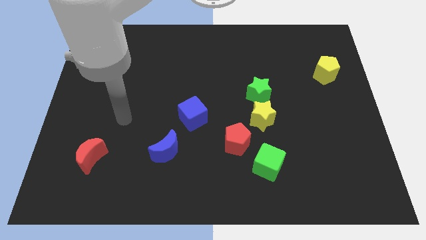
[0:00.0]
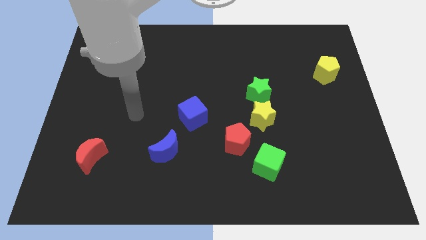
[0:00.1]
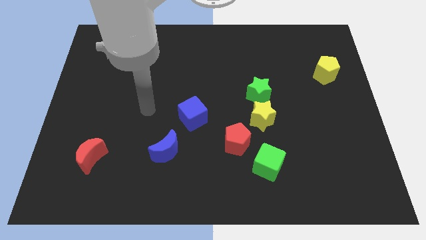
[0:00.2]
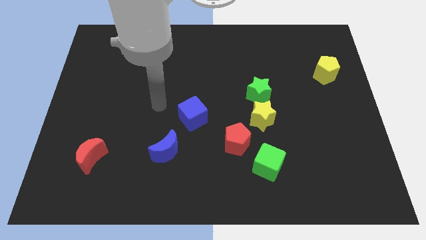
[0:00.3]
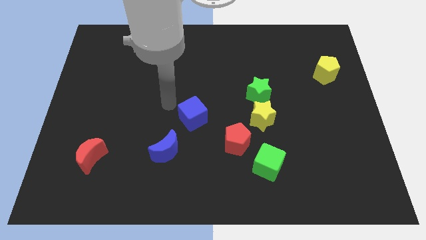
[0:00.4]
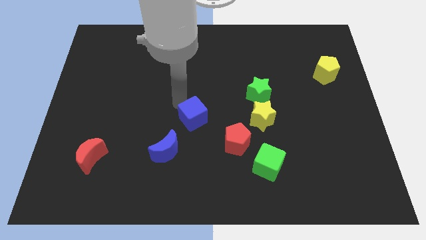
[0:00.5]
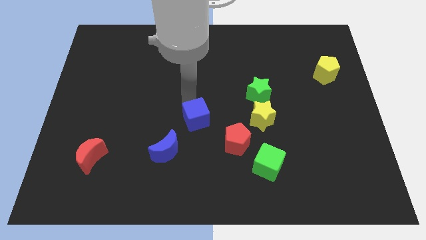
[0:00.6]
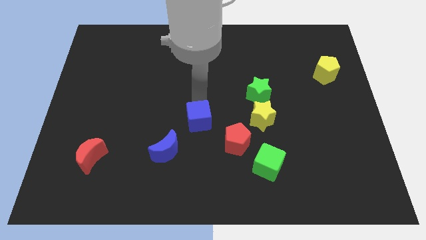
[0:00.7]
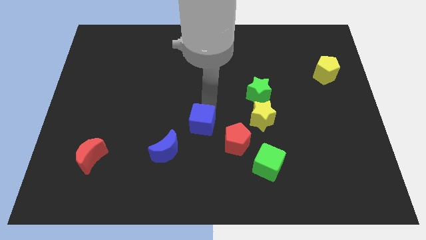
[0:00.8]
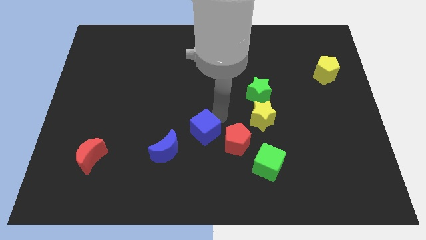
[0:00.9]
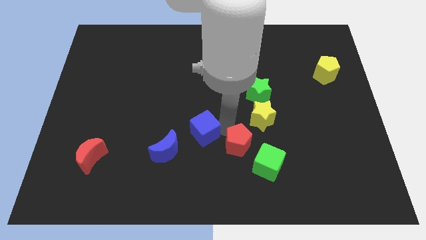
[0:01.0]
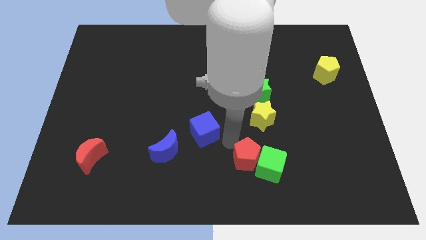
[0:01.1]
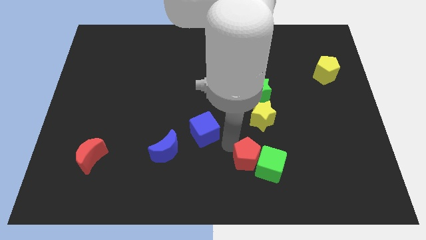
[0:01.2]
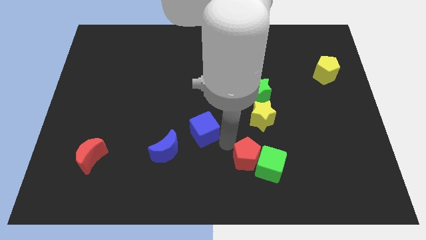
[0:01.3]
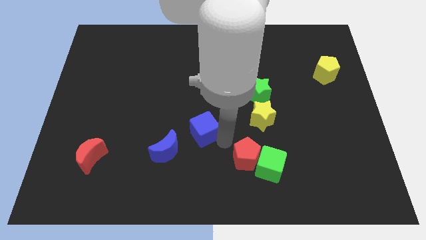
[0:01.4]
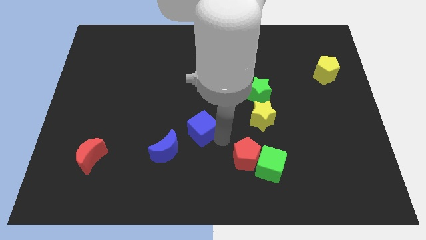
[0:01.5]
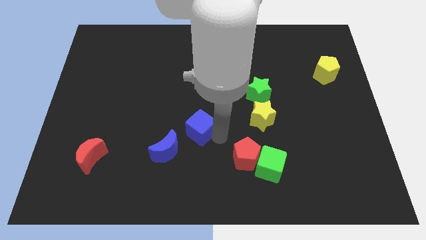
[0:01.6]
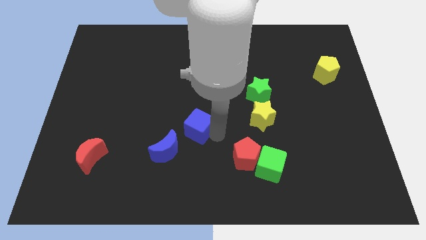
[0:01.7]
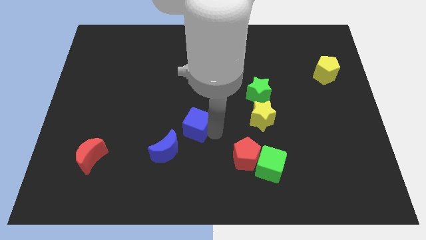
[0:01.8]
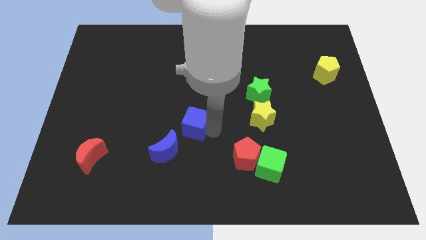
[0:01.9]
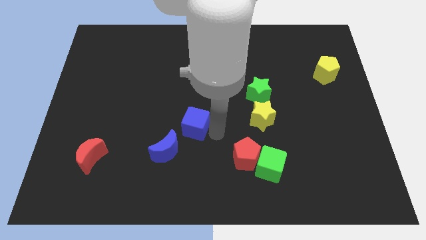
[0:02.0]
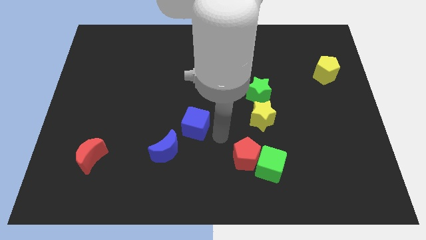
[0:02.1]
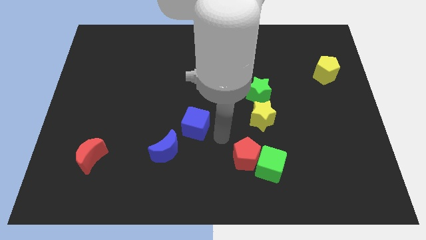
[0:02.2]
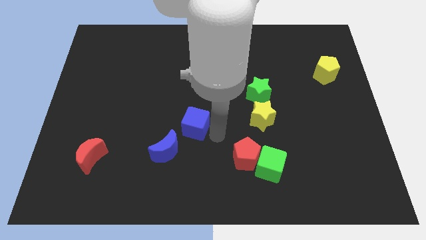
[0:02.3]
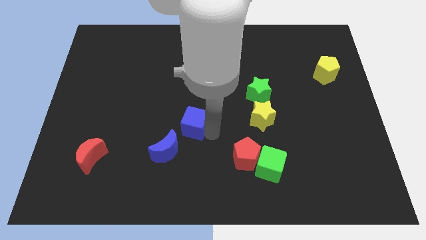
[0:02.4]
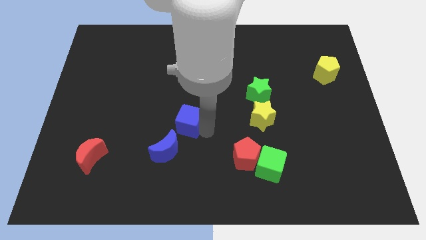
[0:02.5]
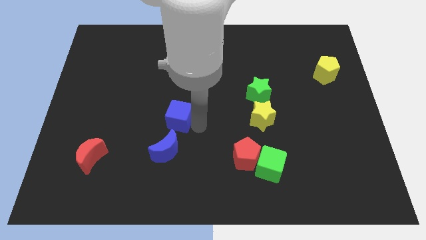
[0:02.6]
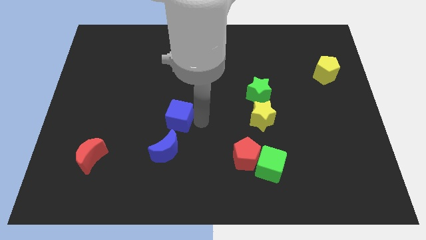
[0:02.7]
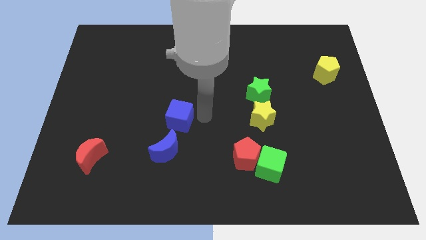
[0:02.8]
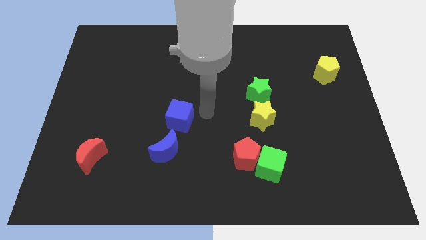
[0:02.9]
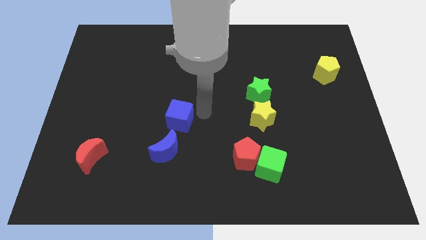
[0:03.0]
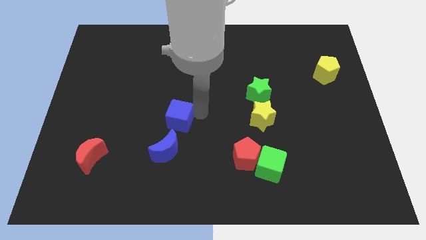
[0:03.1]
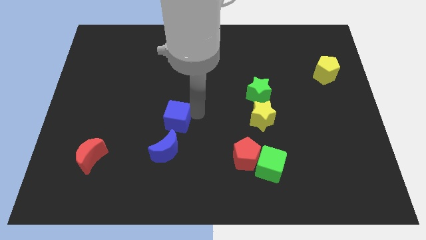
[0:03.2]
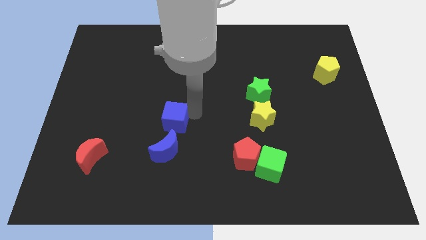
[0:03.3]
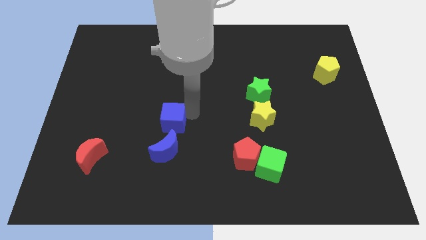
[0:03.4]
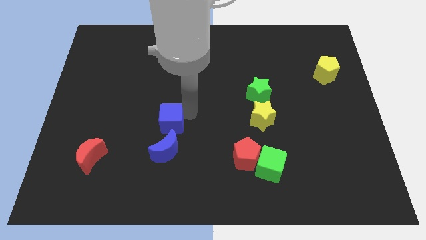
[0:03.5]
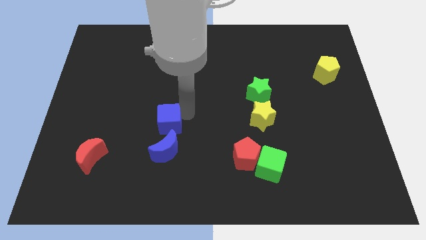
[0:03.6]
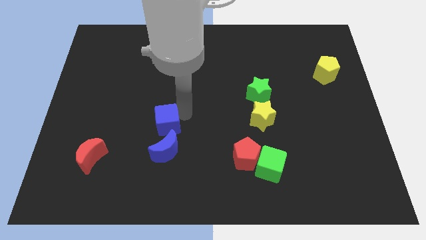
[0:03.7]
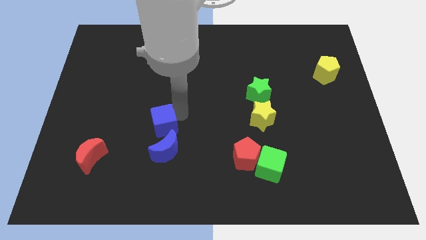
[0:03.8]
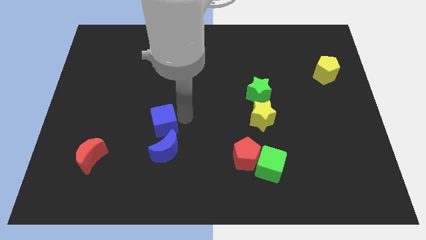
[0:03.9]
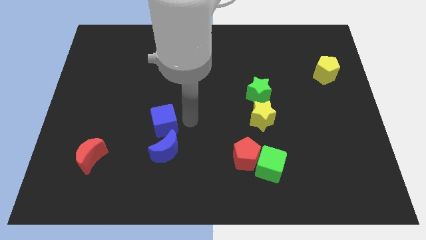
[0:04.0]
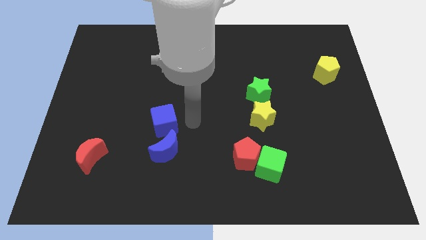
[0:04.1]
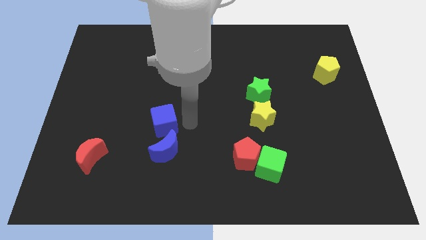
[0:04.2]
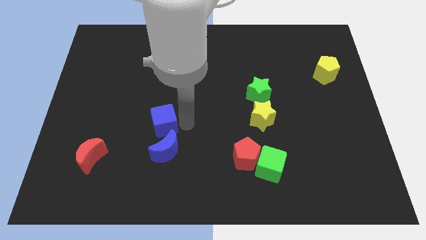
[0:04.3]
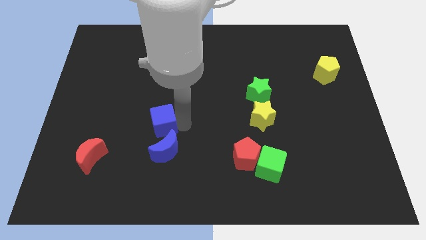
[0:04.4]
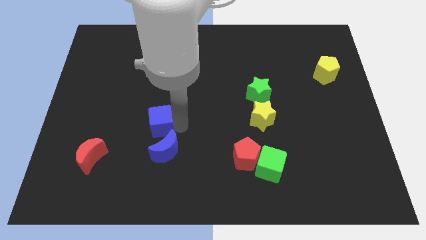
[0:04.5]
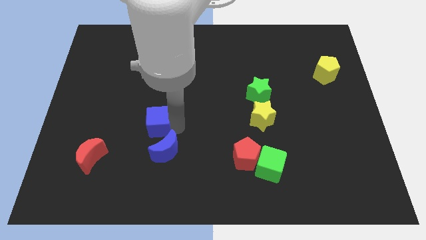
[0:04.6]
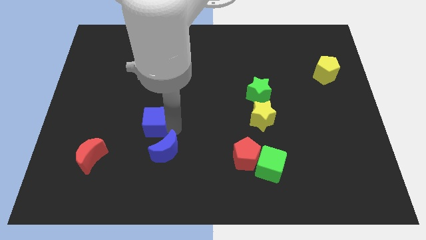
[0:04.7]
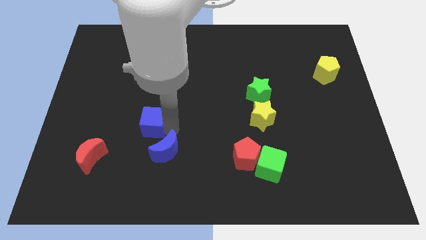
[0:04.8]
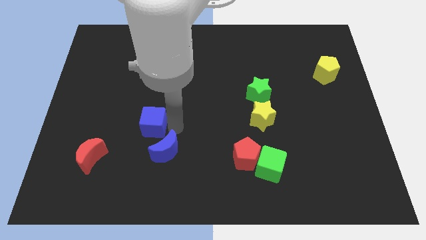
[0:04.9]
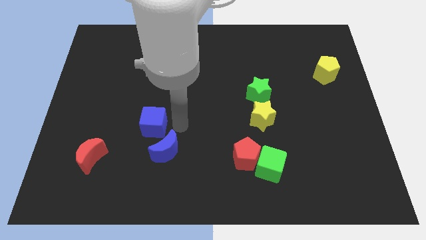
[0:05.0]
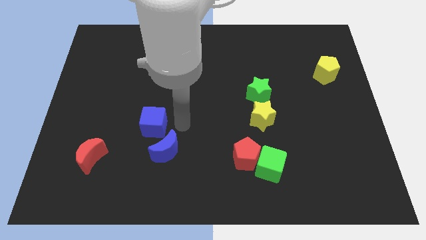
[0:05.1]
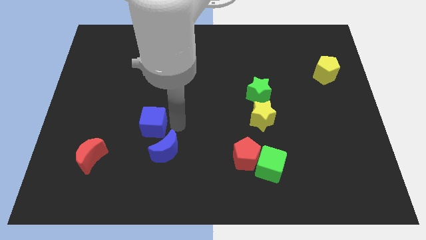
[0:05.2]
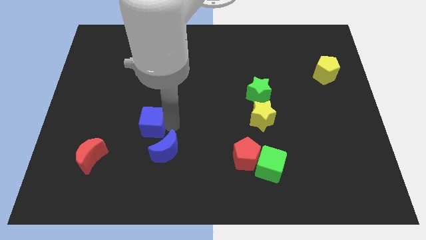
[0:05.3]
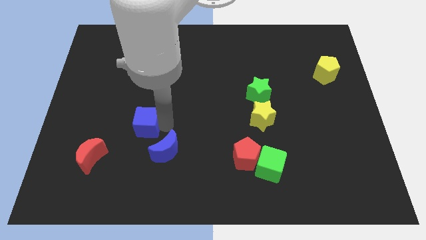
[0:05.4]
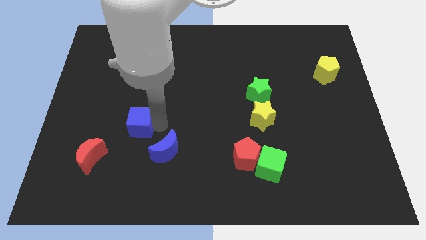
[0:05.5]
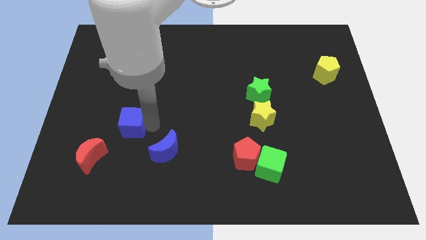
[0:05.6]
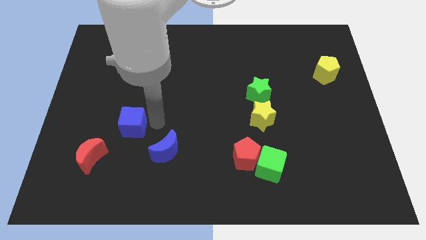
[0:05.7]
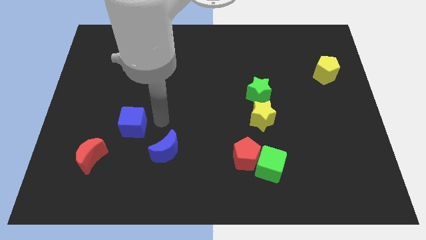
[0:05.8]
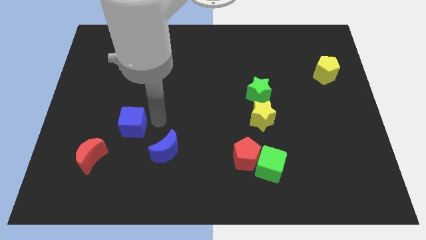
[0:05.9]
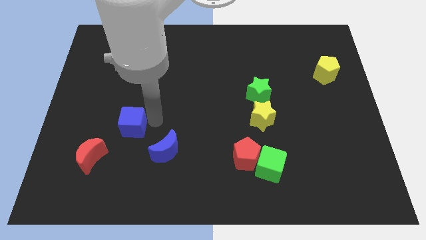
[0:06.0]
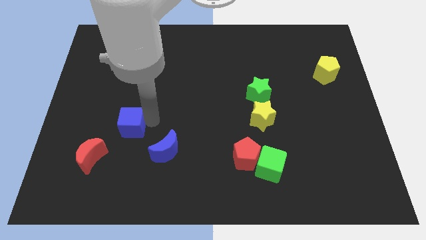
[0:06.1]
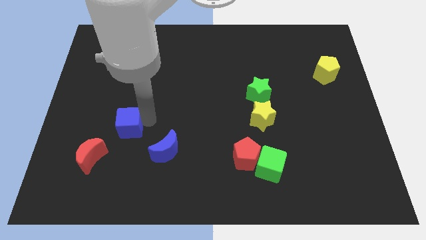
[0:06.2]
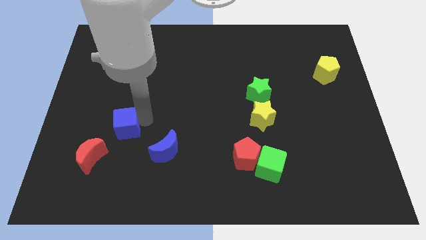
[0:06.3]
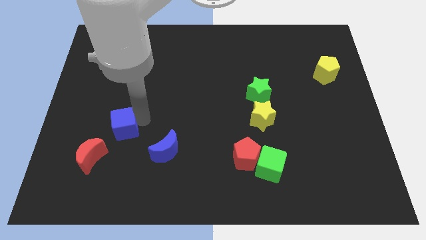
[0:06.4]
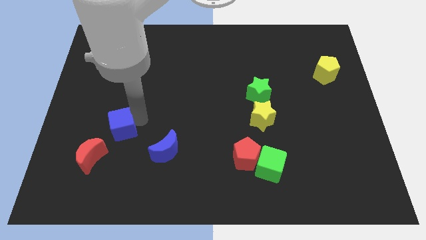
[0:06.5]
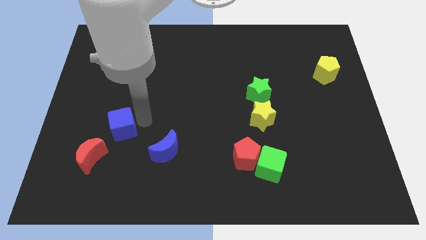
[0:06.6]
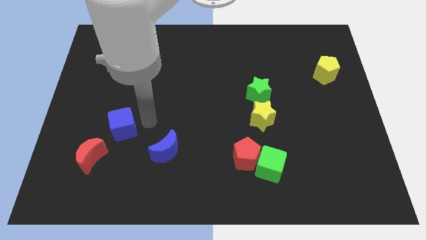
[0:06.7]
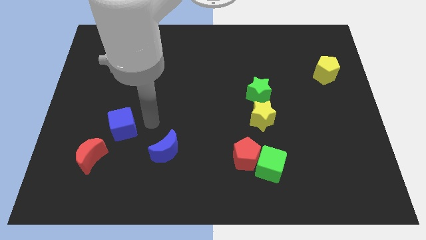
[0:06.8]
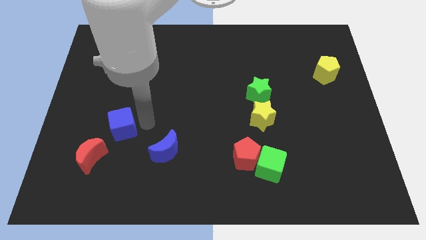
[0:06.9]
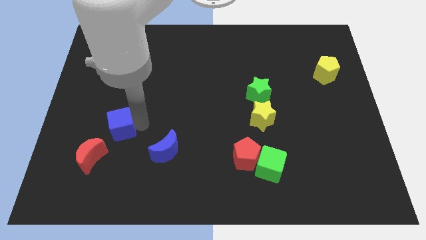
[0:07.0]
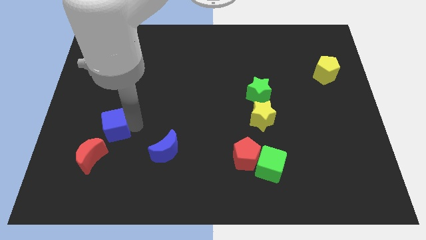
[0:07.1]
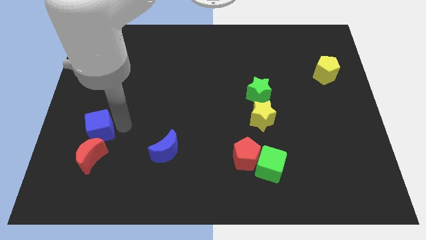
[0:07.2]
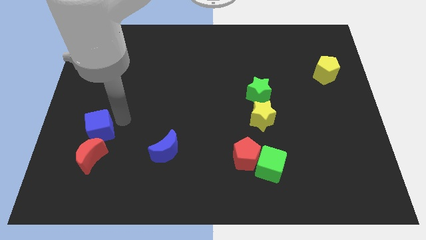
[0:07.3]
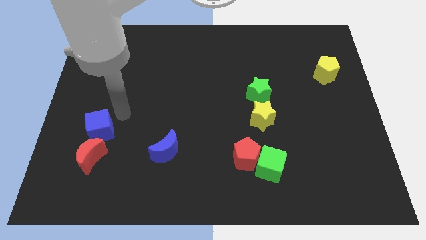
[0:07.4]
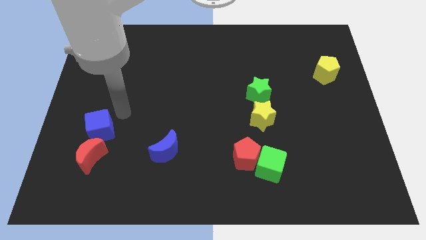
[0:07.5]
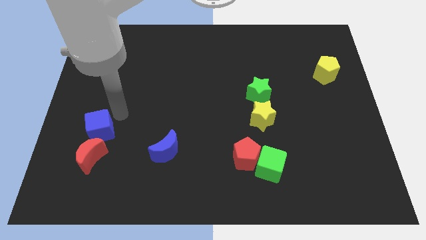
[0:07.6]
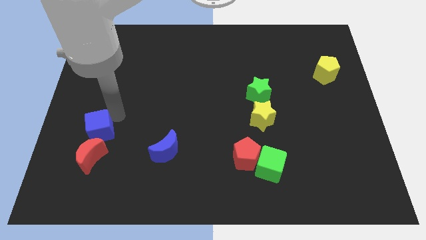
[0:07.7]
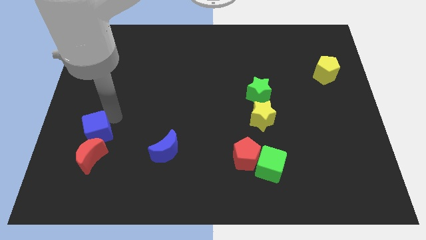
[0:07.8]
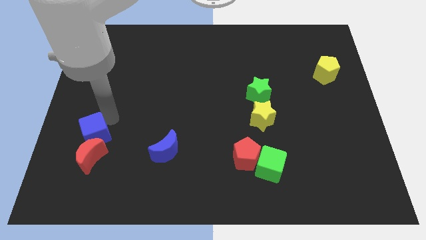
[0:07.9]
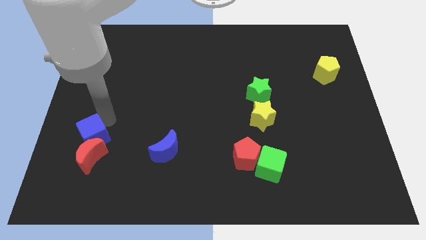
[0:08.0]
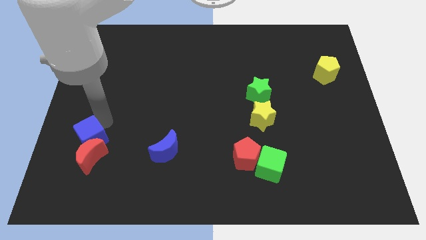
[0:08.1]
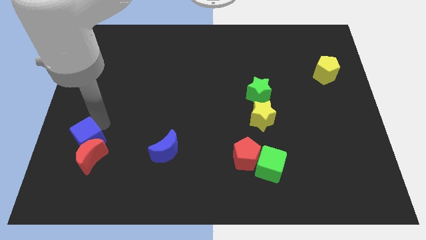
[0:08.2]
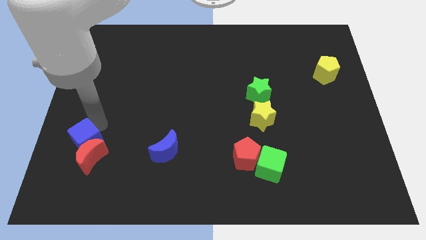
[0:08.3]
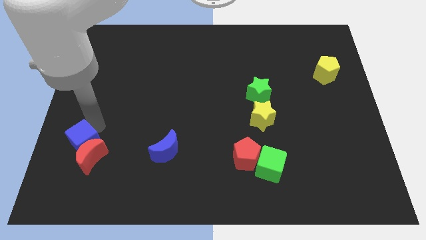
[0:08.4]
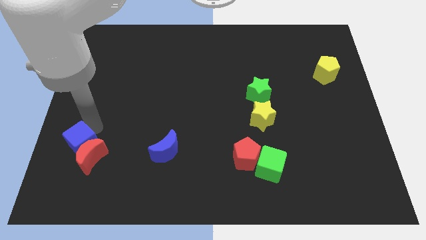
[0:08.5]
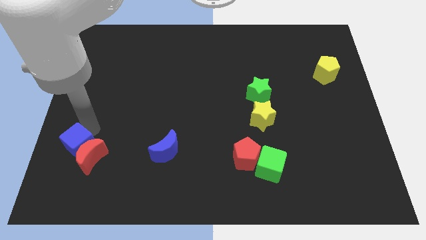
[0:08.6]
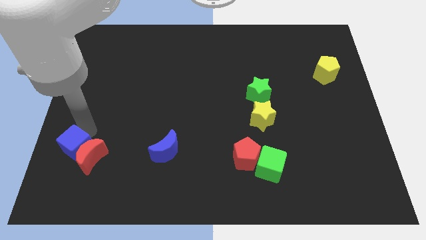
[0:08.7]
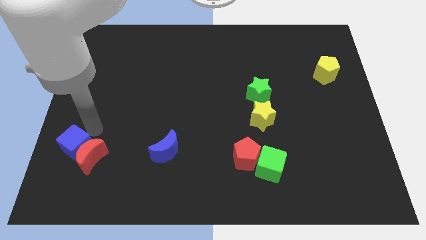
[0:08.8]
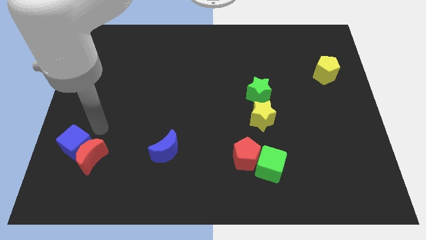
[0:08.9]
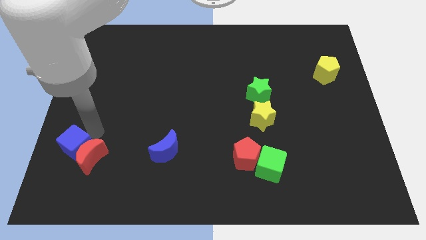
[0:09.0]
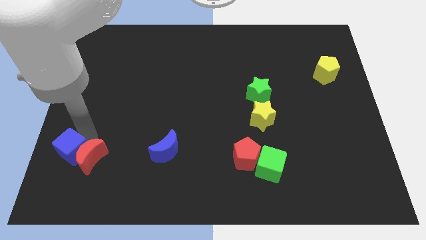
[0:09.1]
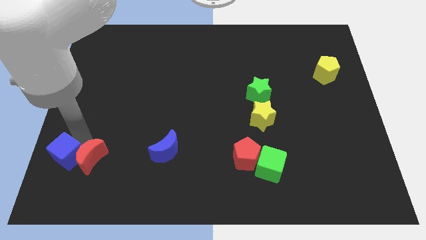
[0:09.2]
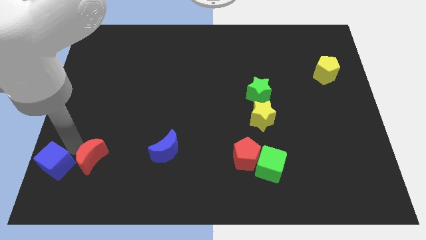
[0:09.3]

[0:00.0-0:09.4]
slide the blue cube to the bottom left
